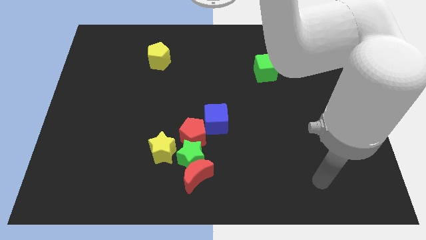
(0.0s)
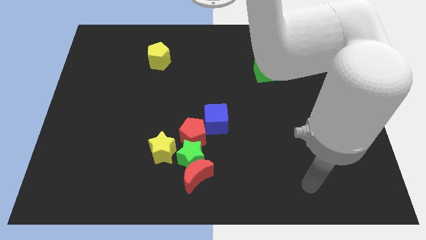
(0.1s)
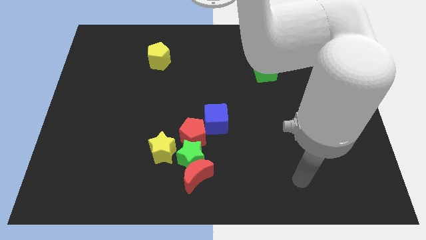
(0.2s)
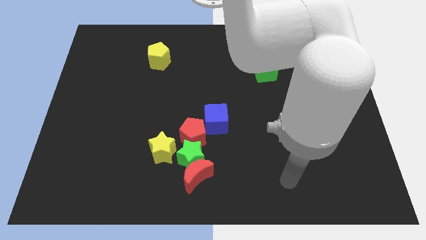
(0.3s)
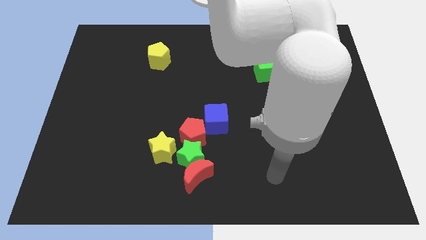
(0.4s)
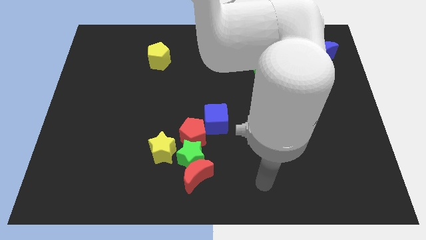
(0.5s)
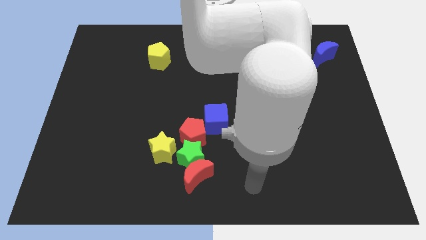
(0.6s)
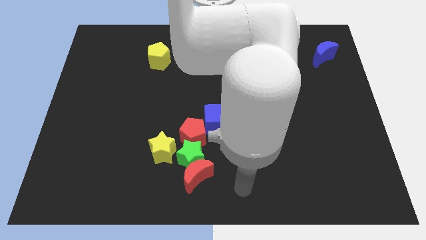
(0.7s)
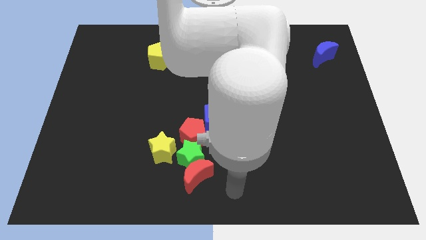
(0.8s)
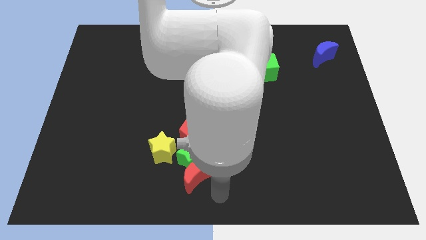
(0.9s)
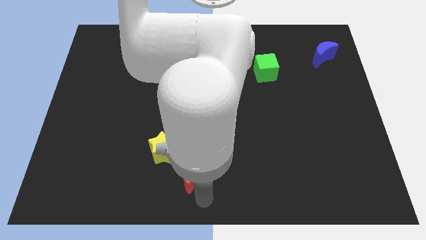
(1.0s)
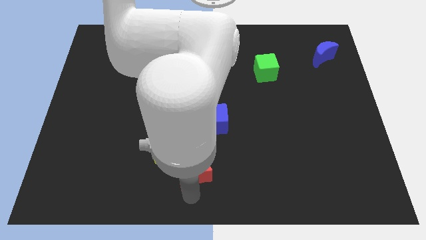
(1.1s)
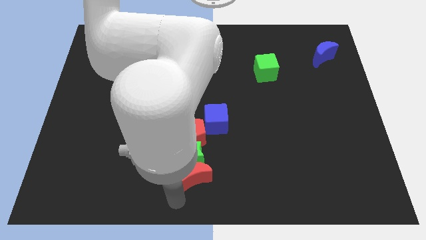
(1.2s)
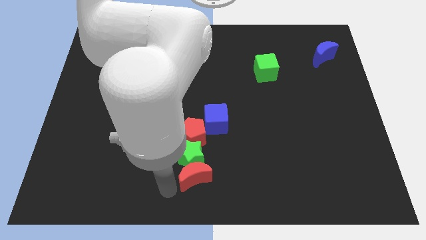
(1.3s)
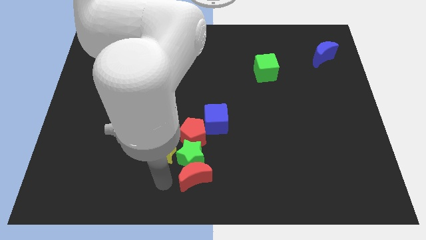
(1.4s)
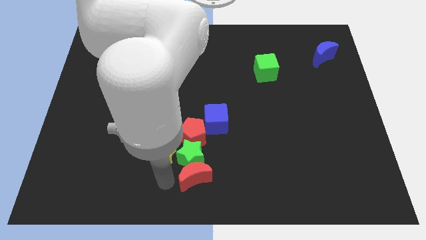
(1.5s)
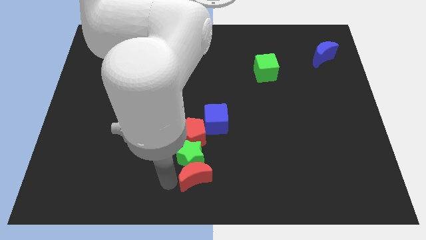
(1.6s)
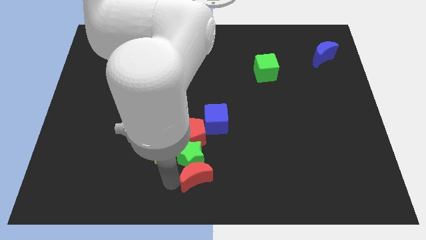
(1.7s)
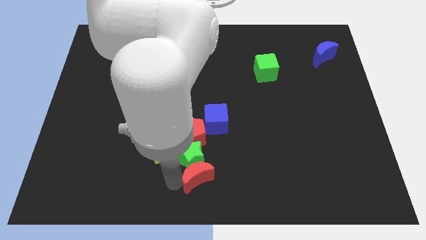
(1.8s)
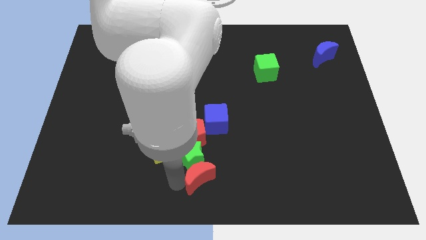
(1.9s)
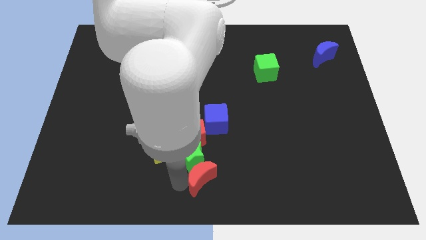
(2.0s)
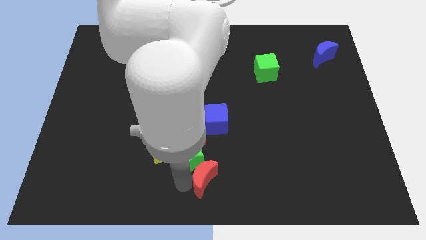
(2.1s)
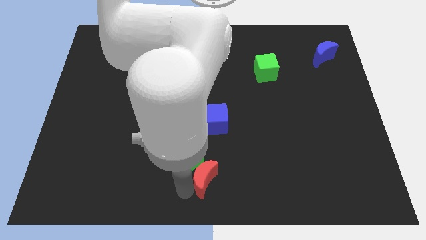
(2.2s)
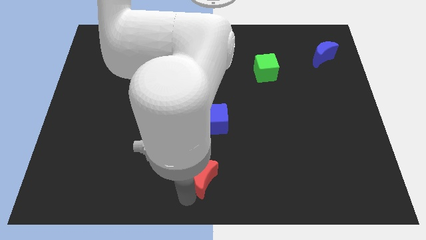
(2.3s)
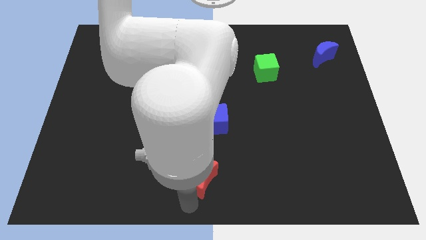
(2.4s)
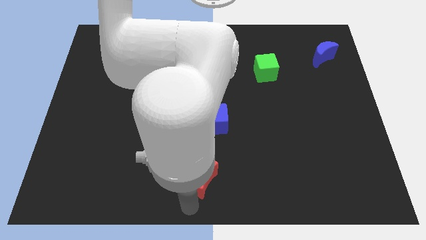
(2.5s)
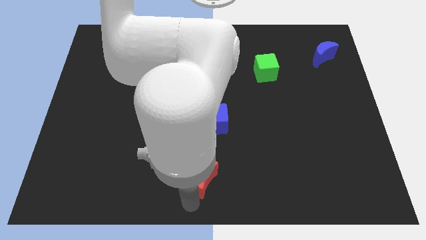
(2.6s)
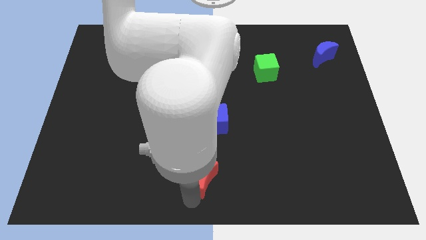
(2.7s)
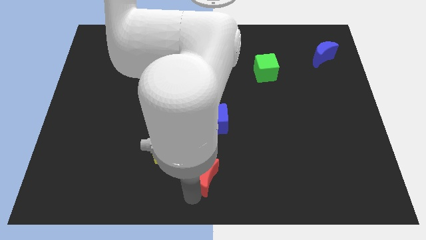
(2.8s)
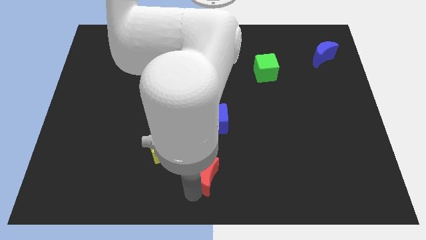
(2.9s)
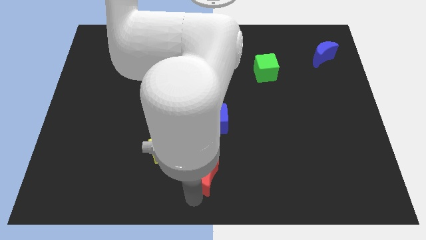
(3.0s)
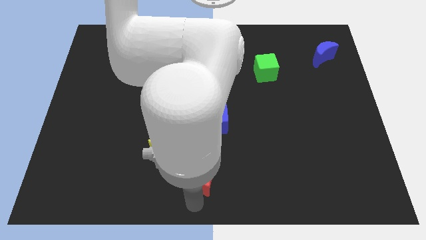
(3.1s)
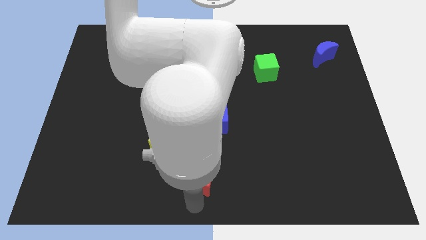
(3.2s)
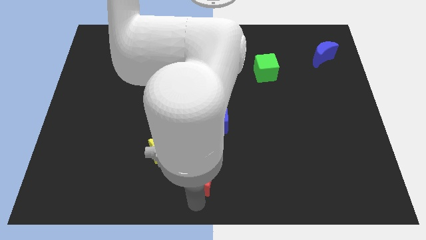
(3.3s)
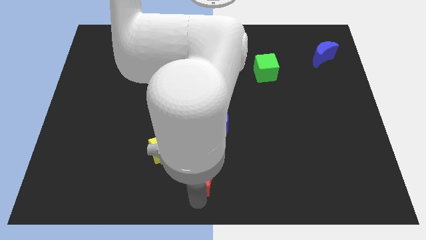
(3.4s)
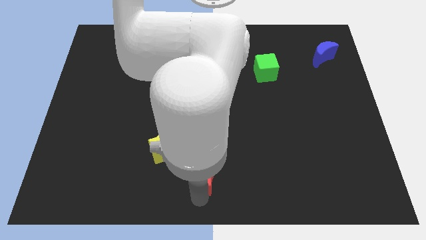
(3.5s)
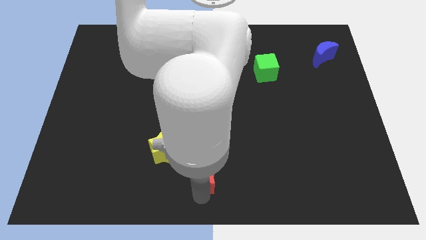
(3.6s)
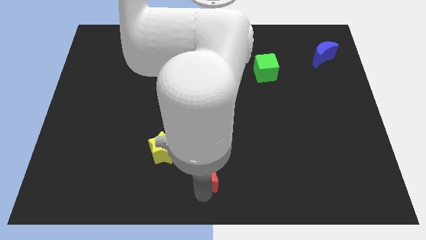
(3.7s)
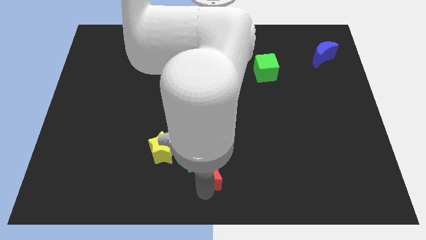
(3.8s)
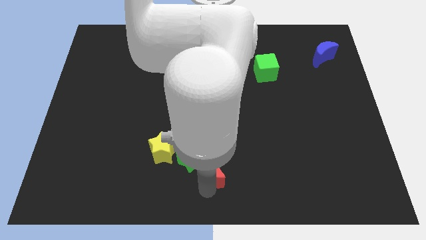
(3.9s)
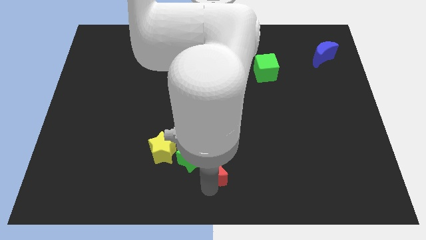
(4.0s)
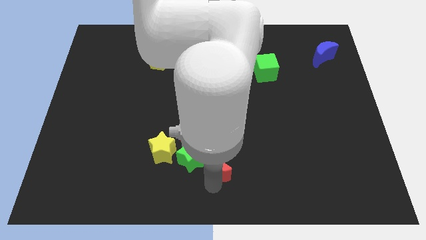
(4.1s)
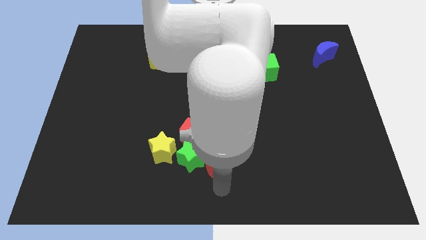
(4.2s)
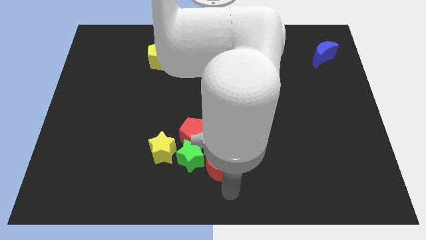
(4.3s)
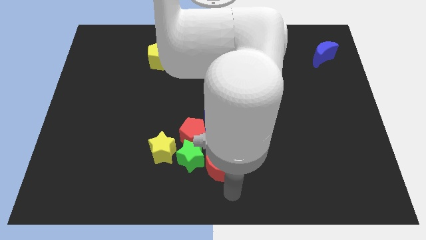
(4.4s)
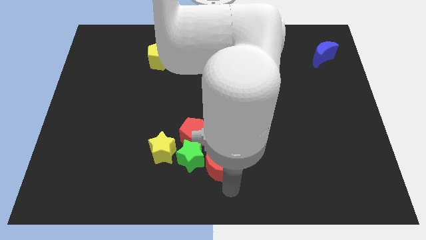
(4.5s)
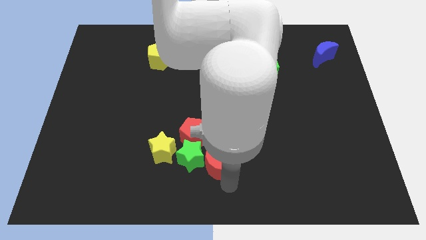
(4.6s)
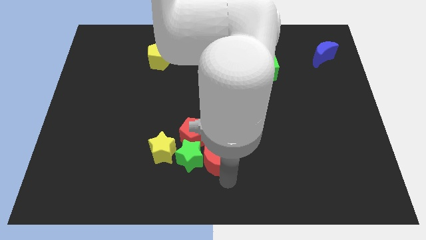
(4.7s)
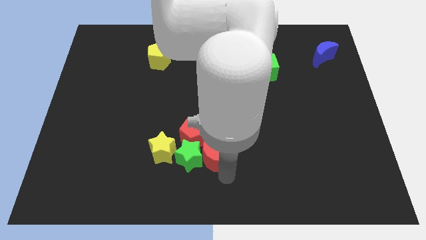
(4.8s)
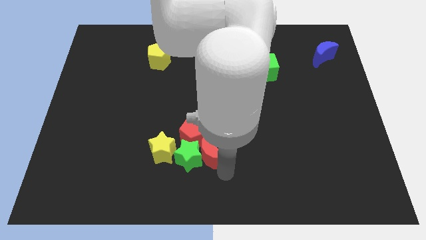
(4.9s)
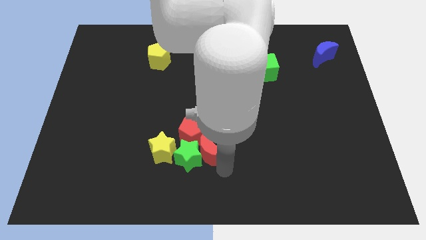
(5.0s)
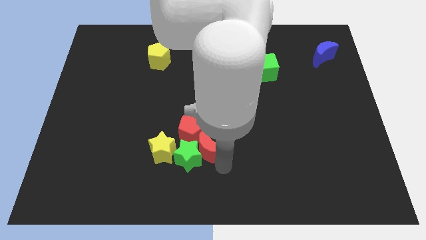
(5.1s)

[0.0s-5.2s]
put the red moon next to the red pentagon

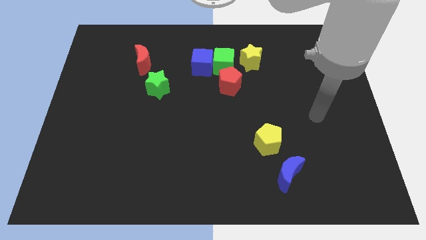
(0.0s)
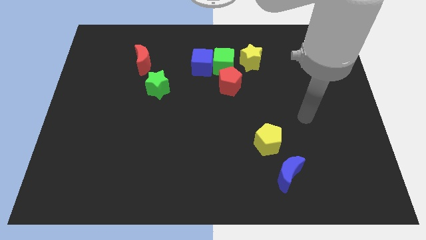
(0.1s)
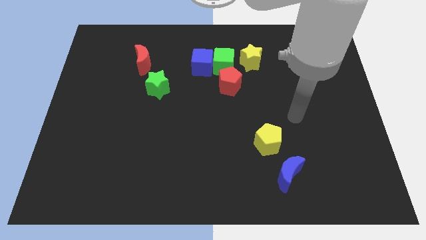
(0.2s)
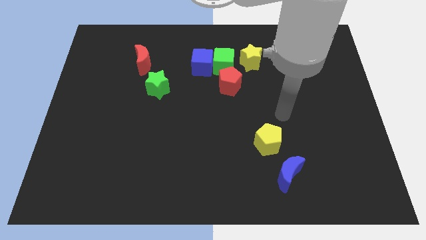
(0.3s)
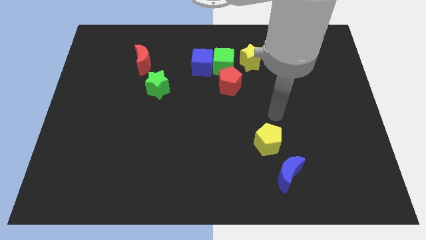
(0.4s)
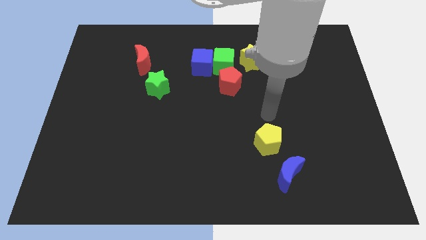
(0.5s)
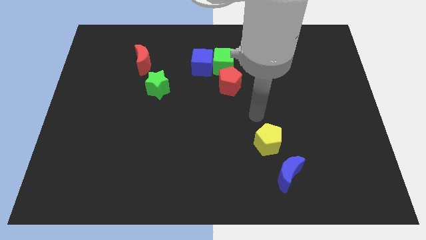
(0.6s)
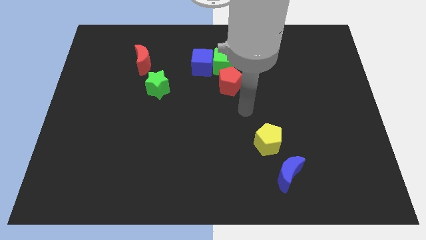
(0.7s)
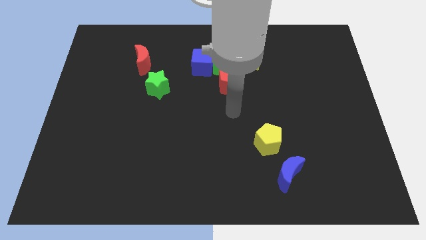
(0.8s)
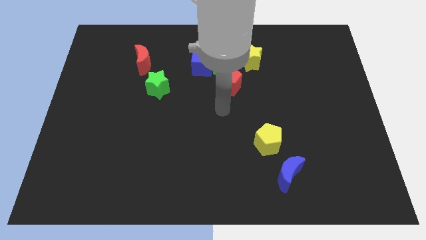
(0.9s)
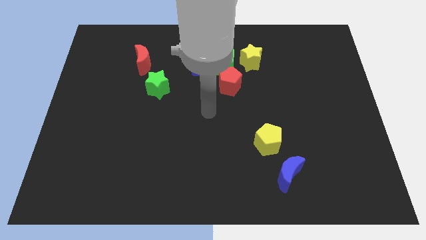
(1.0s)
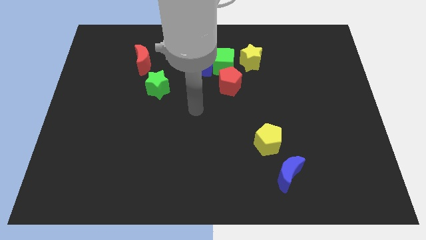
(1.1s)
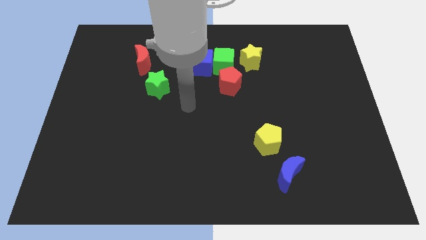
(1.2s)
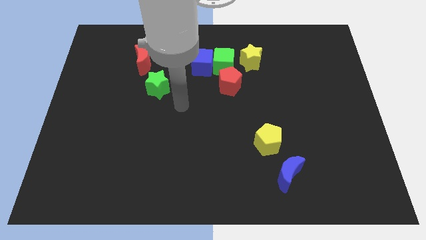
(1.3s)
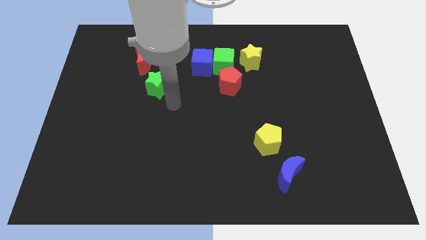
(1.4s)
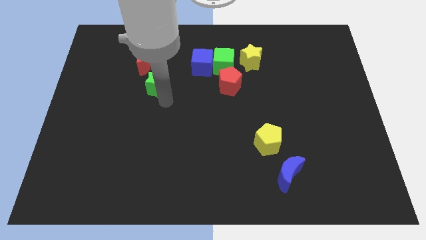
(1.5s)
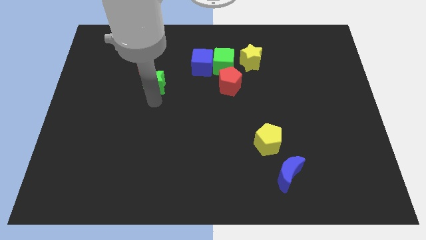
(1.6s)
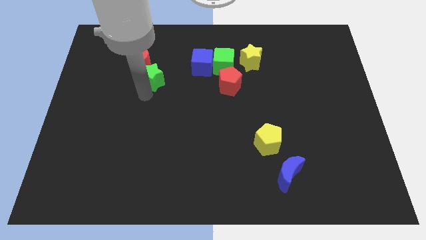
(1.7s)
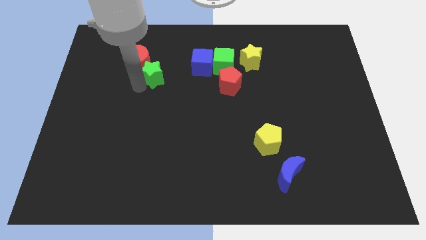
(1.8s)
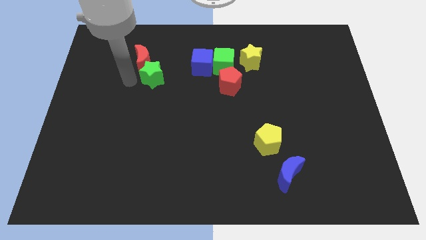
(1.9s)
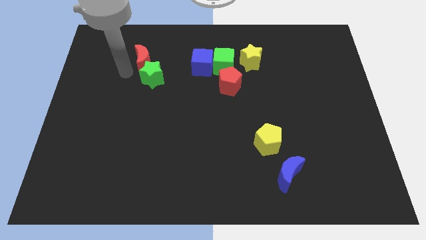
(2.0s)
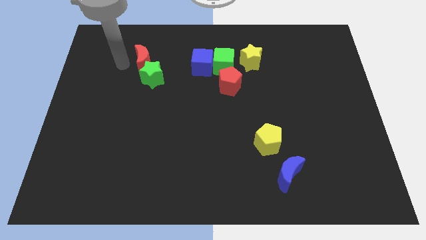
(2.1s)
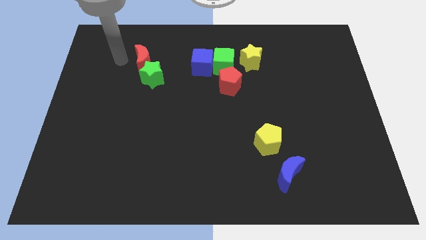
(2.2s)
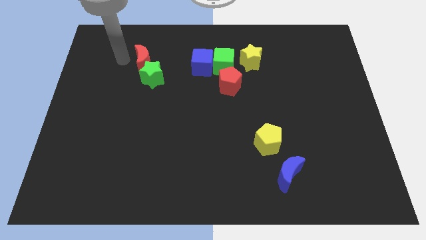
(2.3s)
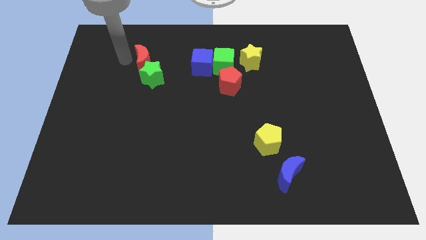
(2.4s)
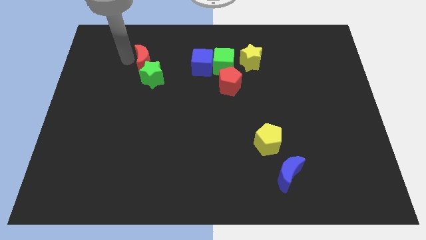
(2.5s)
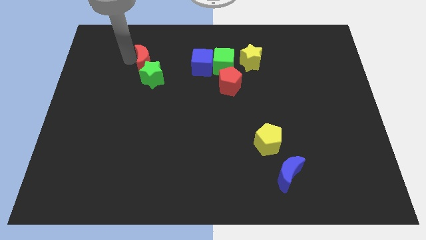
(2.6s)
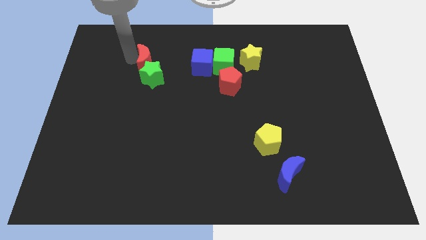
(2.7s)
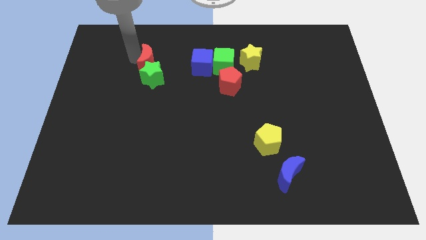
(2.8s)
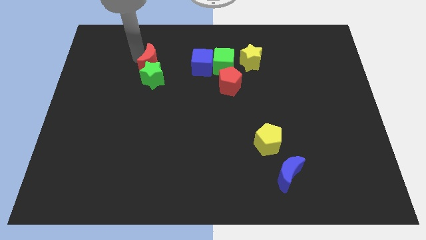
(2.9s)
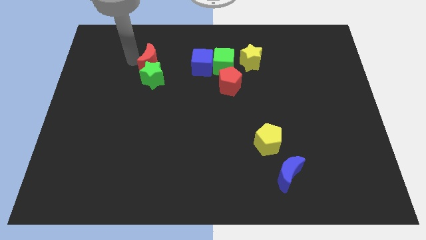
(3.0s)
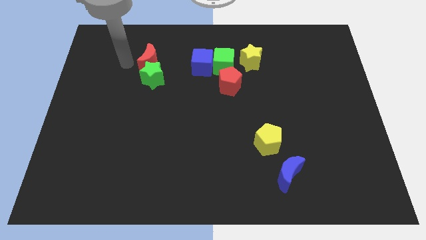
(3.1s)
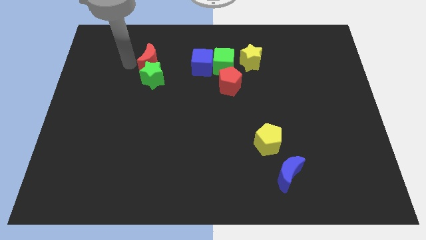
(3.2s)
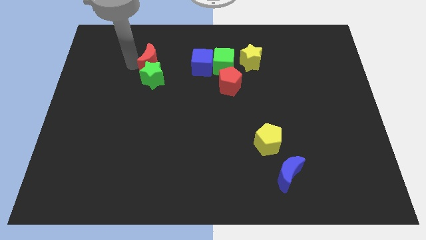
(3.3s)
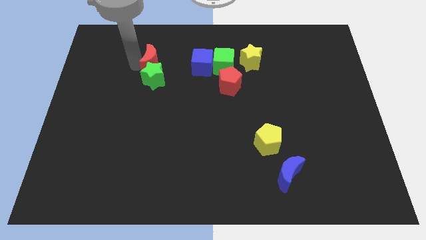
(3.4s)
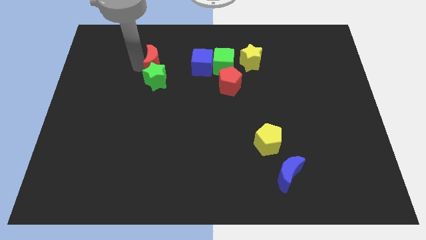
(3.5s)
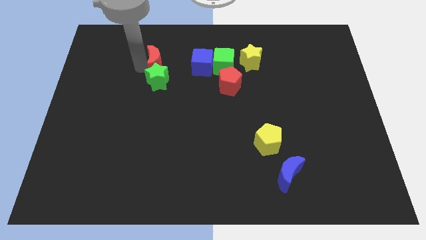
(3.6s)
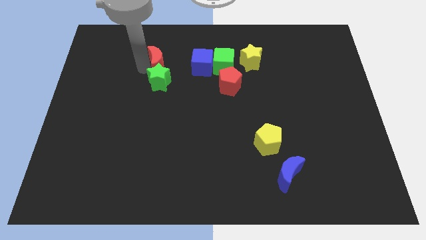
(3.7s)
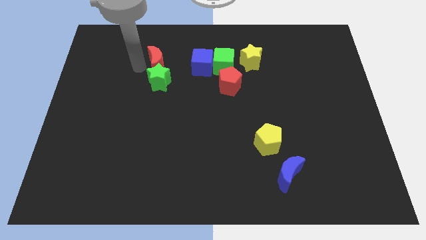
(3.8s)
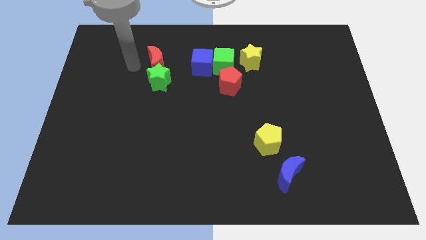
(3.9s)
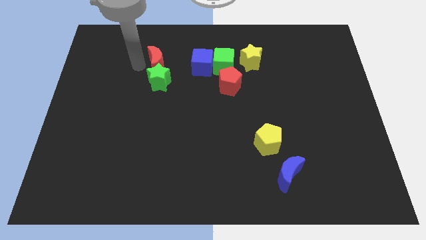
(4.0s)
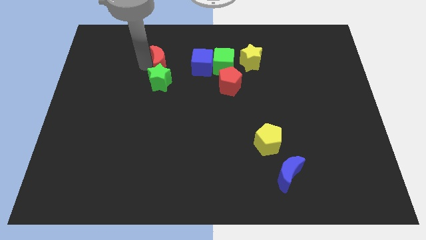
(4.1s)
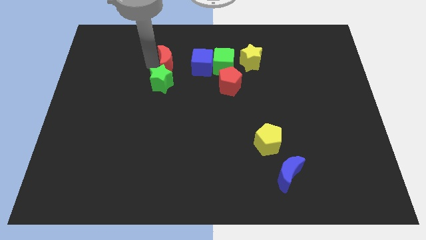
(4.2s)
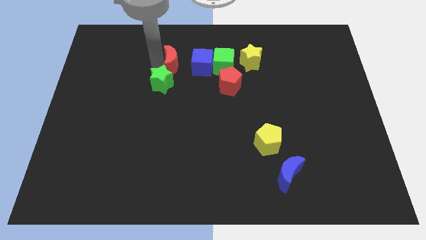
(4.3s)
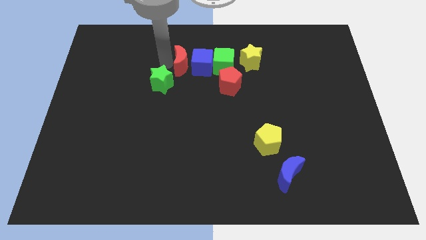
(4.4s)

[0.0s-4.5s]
slide the red moon towards the blue cube
